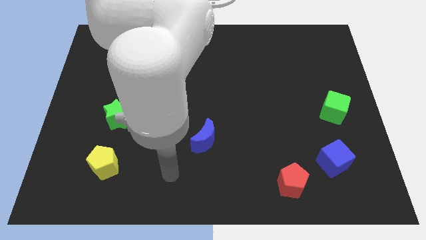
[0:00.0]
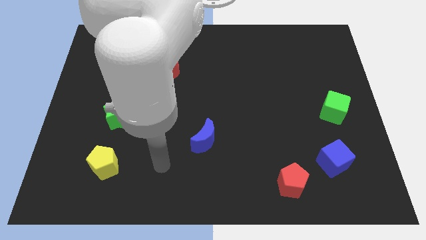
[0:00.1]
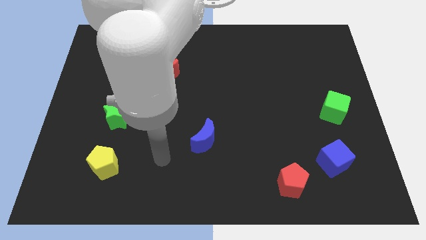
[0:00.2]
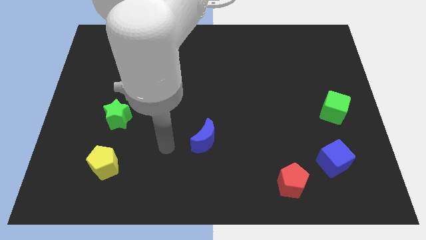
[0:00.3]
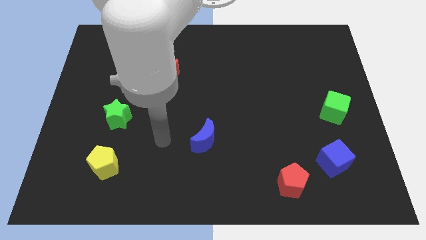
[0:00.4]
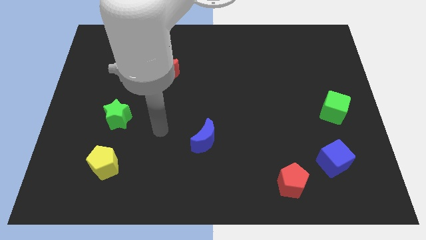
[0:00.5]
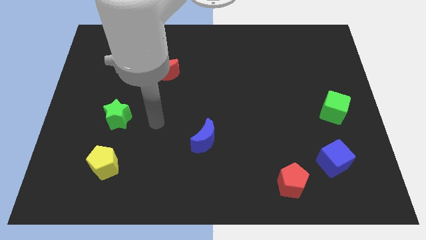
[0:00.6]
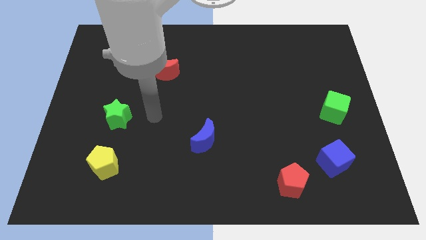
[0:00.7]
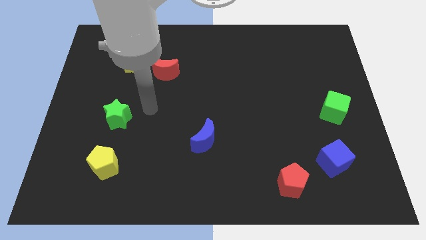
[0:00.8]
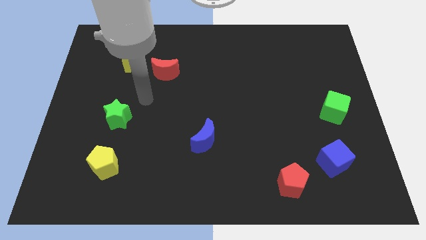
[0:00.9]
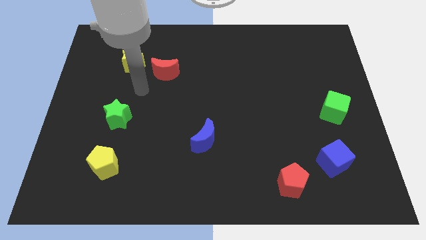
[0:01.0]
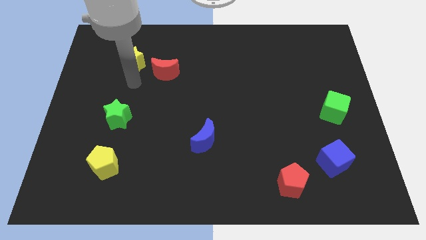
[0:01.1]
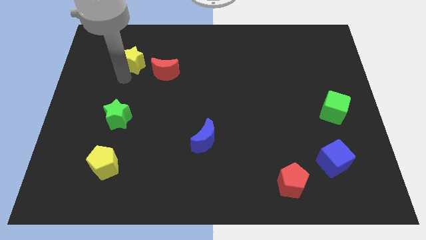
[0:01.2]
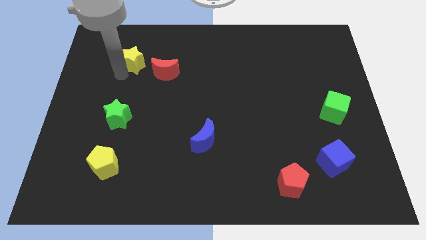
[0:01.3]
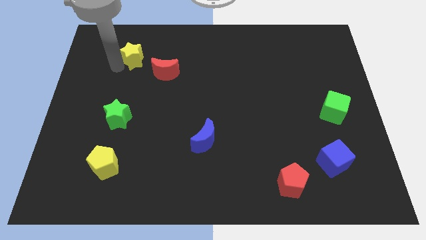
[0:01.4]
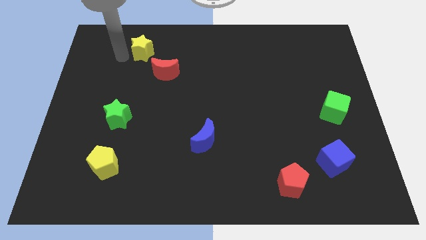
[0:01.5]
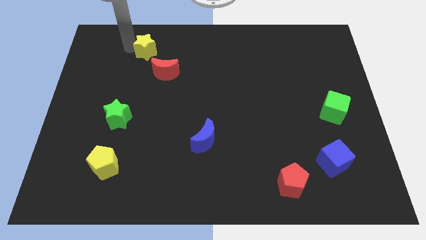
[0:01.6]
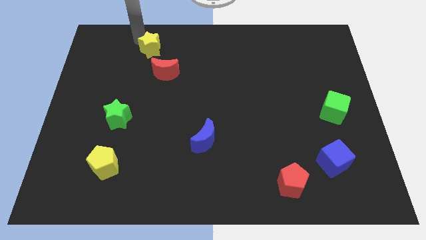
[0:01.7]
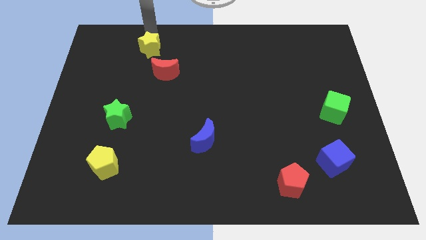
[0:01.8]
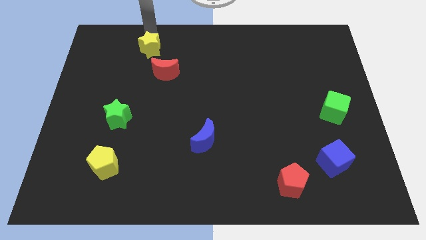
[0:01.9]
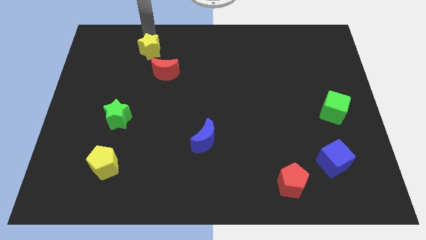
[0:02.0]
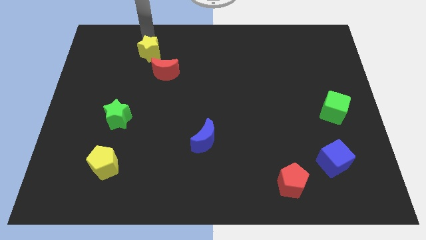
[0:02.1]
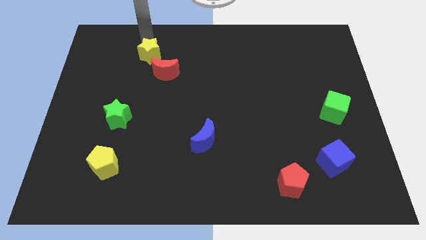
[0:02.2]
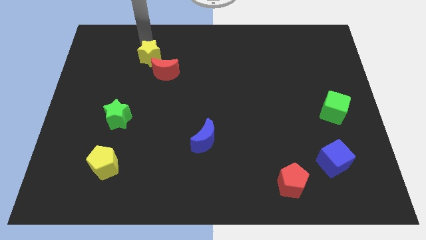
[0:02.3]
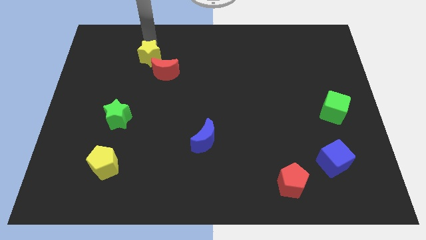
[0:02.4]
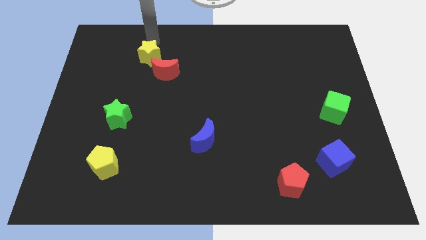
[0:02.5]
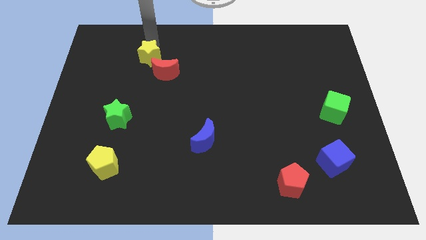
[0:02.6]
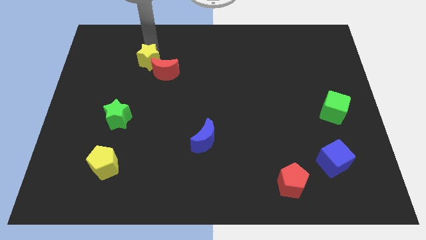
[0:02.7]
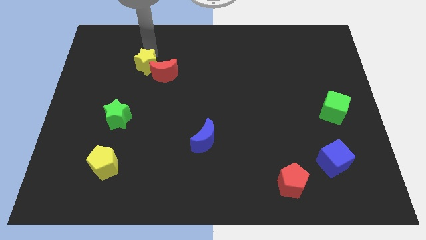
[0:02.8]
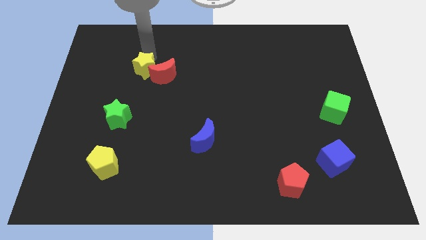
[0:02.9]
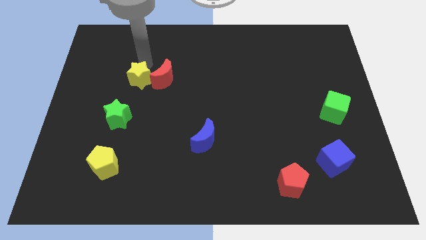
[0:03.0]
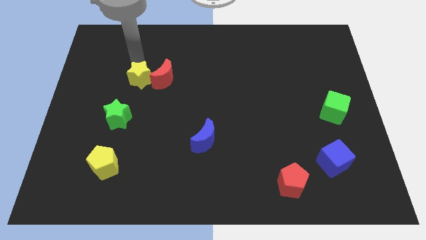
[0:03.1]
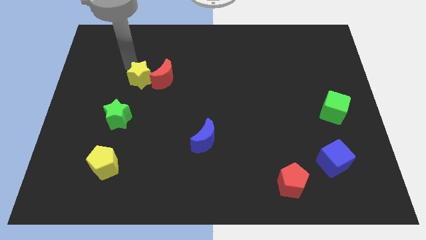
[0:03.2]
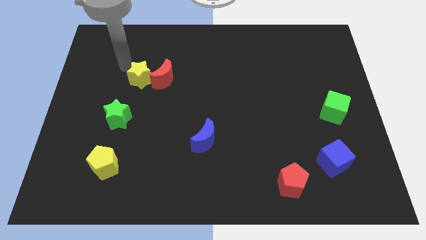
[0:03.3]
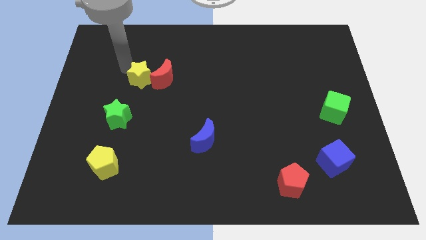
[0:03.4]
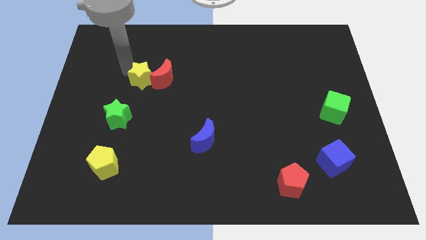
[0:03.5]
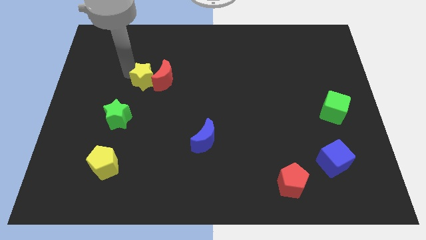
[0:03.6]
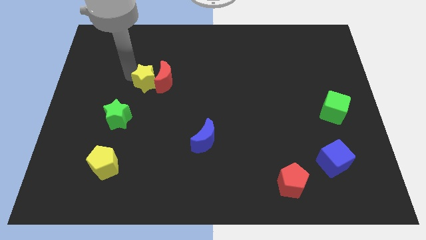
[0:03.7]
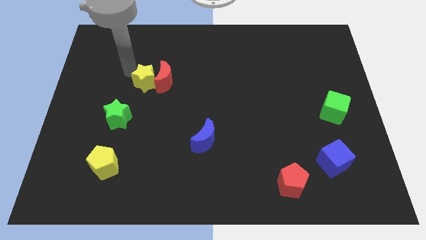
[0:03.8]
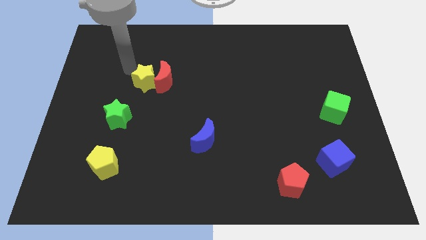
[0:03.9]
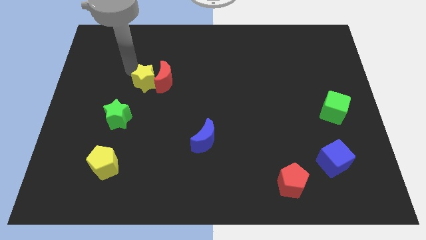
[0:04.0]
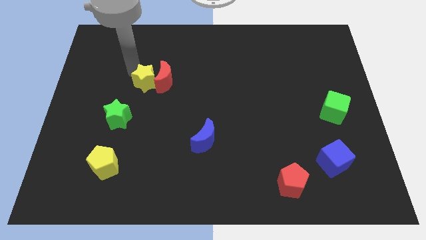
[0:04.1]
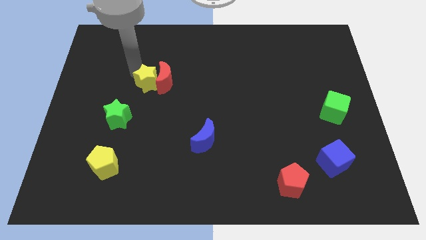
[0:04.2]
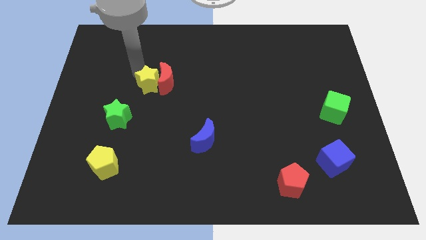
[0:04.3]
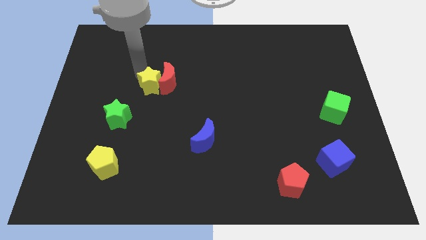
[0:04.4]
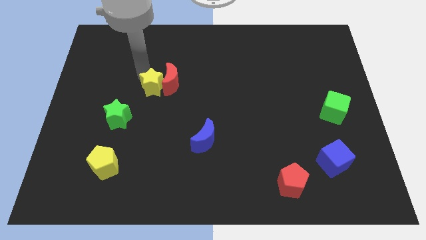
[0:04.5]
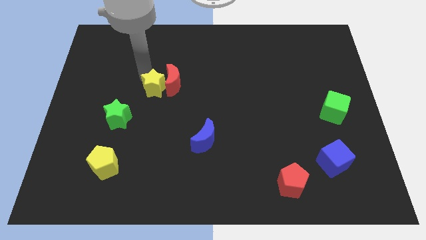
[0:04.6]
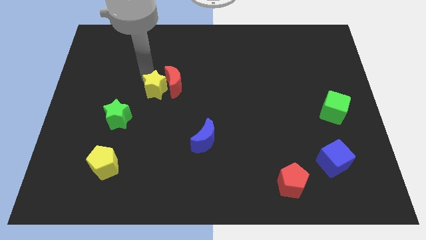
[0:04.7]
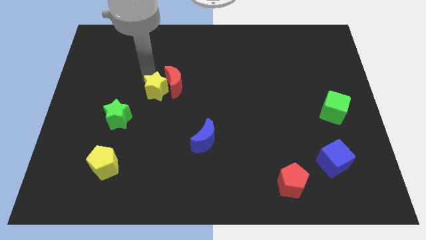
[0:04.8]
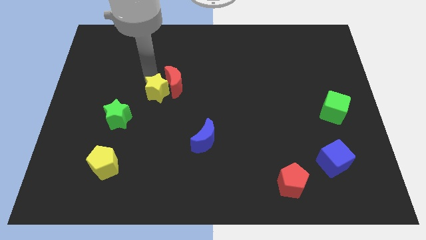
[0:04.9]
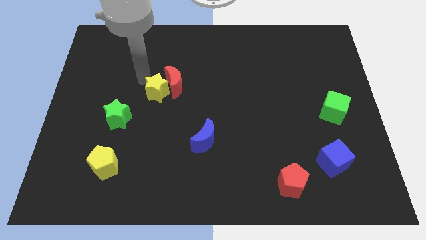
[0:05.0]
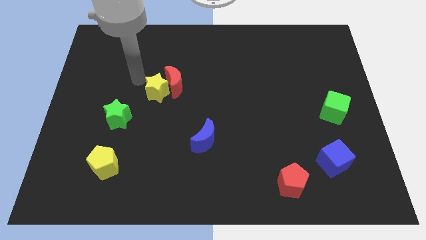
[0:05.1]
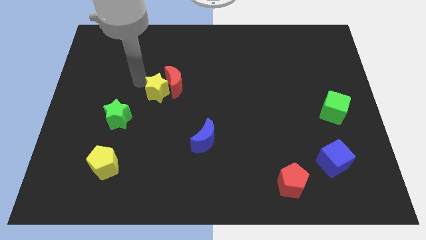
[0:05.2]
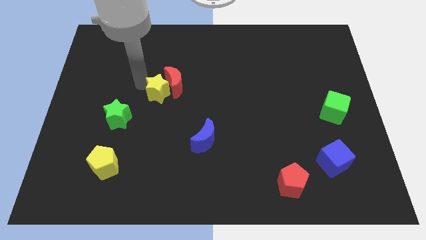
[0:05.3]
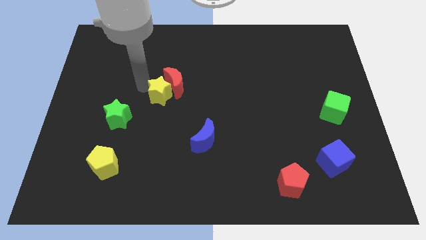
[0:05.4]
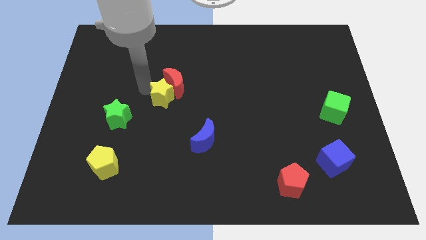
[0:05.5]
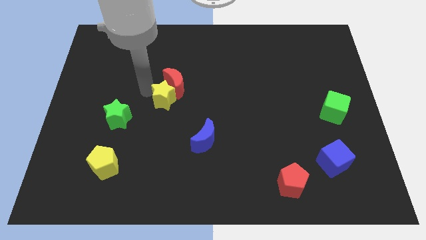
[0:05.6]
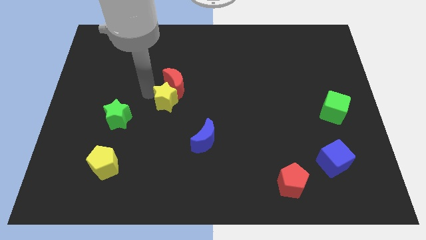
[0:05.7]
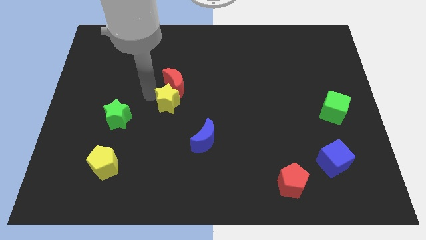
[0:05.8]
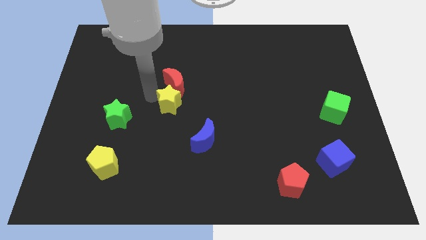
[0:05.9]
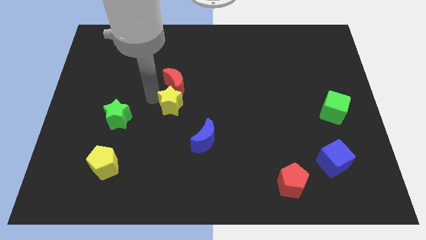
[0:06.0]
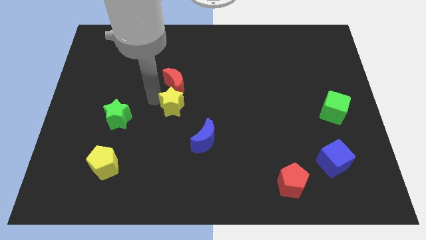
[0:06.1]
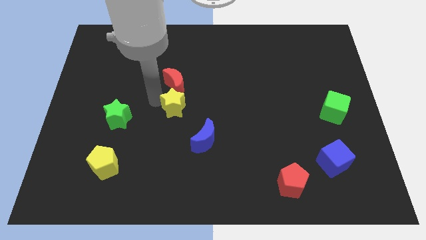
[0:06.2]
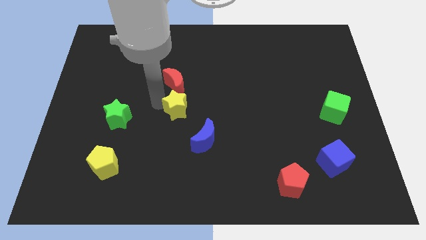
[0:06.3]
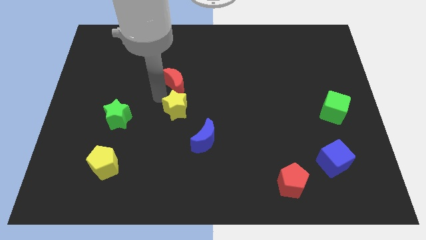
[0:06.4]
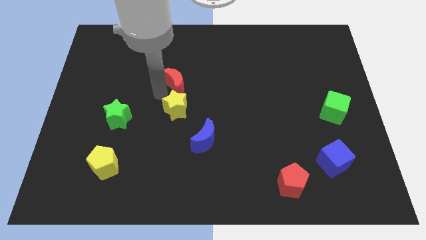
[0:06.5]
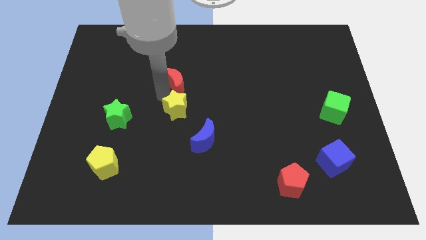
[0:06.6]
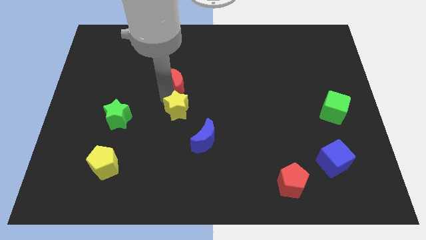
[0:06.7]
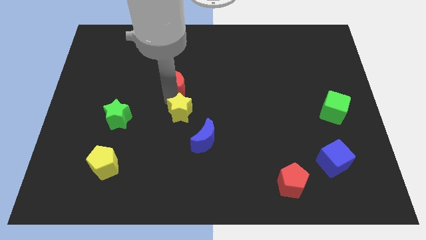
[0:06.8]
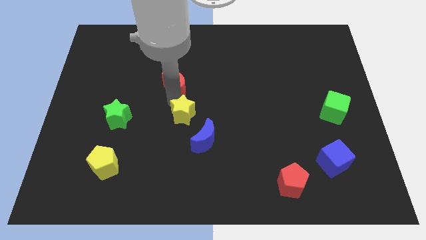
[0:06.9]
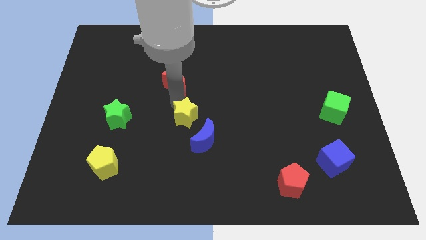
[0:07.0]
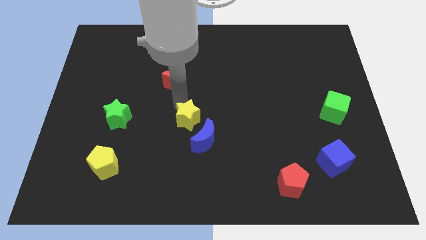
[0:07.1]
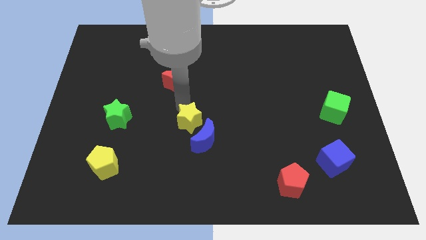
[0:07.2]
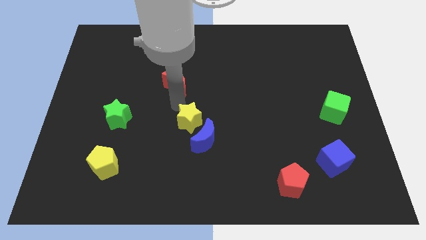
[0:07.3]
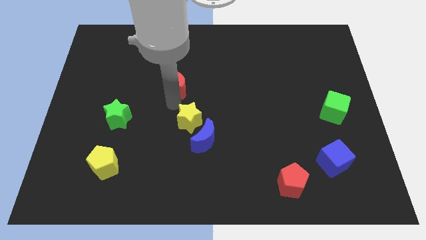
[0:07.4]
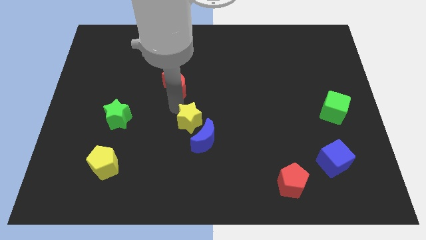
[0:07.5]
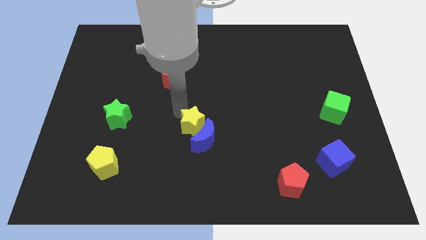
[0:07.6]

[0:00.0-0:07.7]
push the yellow star next to the blue moon

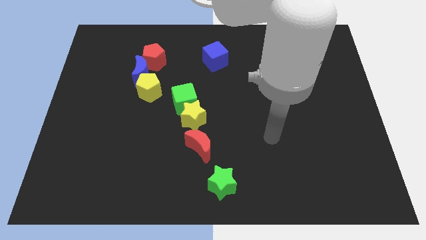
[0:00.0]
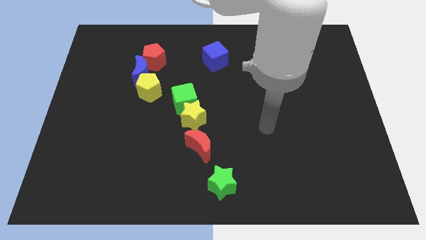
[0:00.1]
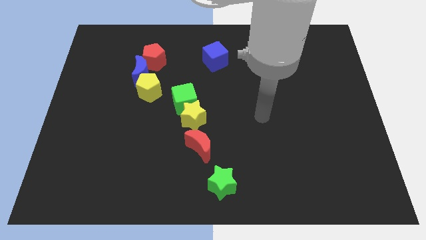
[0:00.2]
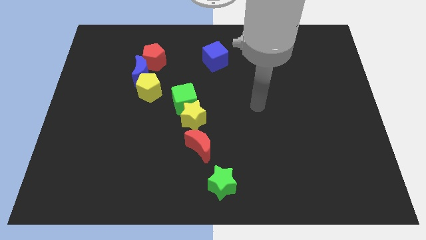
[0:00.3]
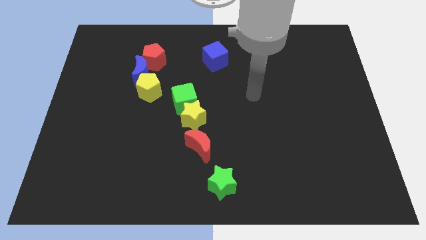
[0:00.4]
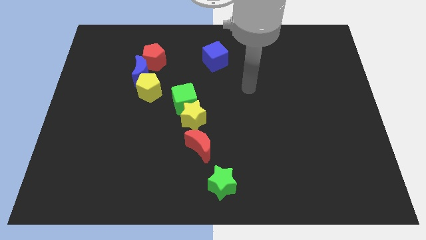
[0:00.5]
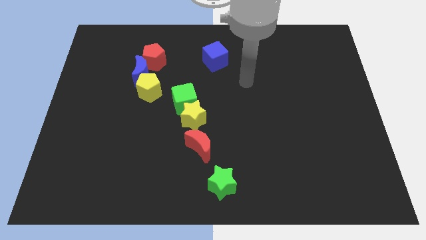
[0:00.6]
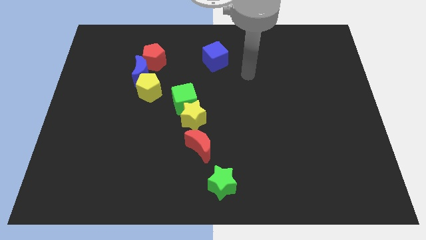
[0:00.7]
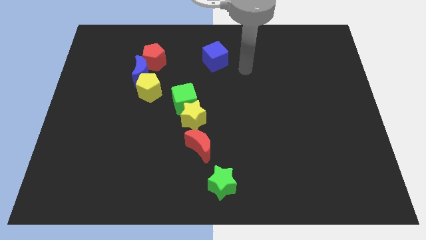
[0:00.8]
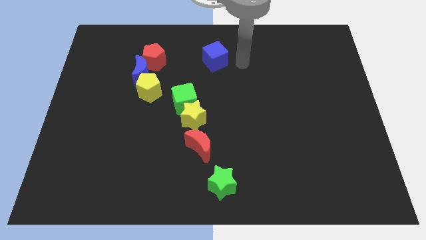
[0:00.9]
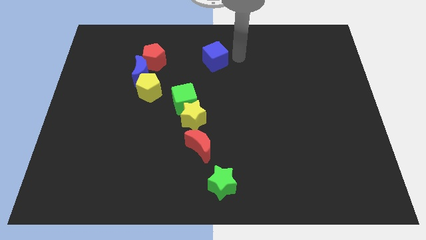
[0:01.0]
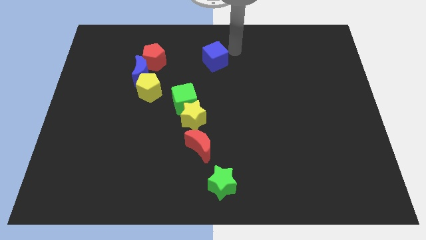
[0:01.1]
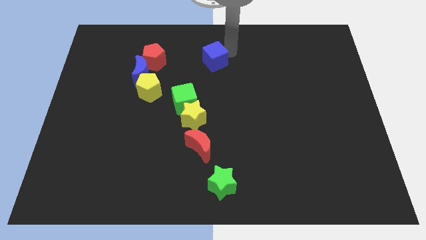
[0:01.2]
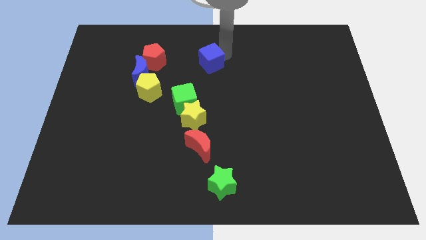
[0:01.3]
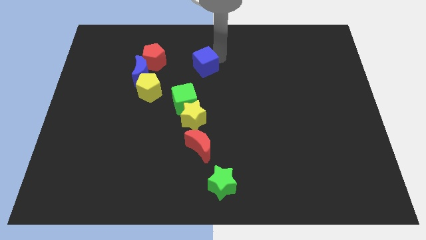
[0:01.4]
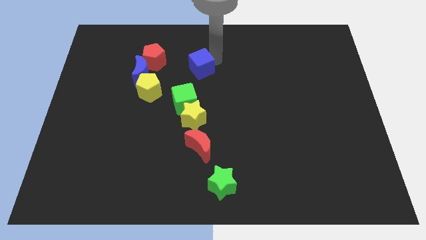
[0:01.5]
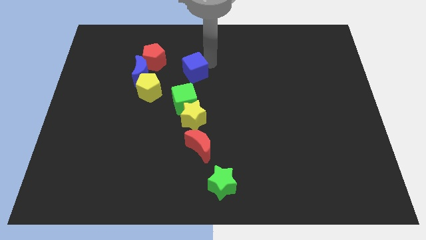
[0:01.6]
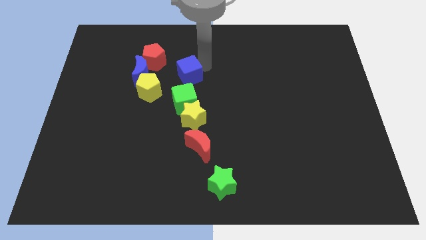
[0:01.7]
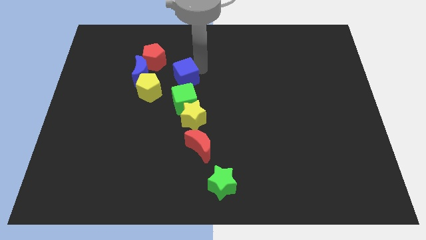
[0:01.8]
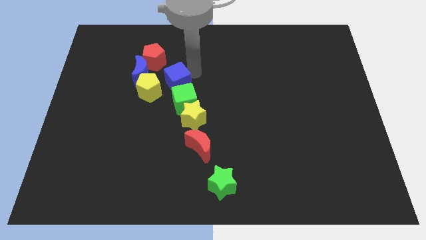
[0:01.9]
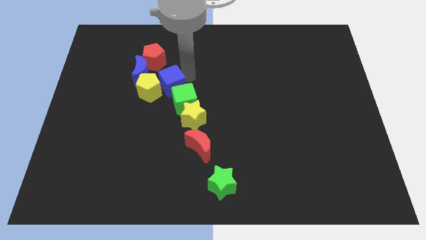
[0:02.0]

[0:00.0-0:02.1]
slide the blue cube towards the yellow pentagon
